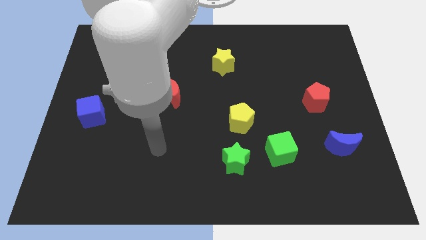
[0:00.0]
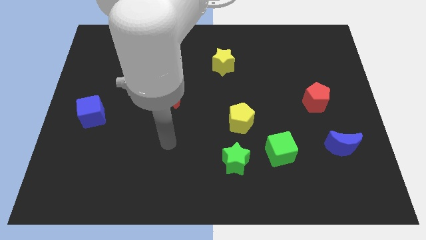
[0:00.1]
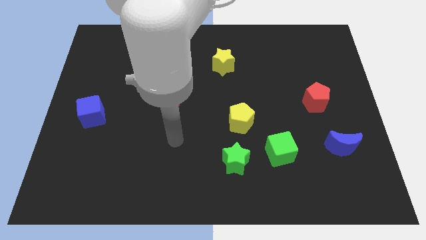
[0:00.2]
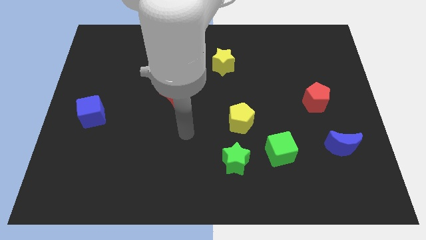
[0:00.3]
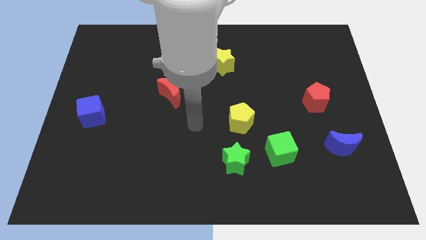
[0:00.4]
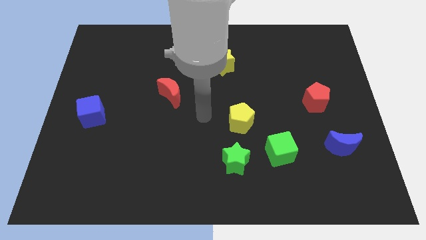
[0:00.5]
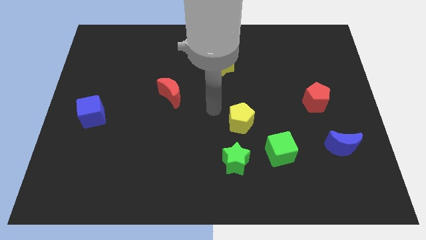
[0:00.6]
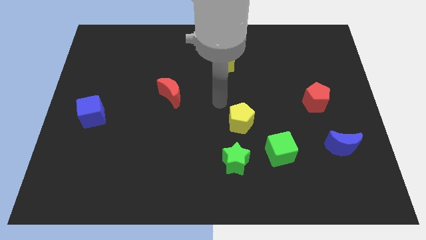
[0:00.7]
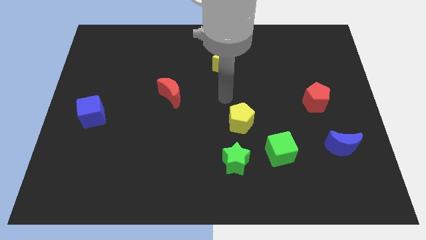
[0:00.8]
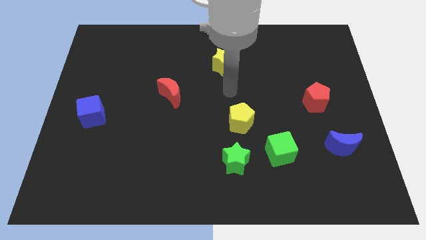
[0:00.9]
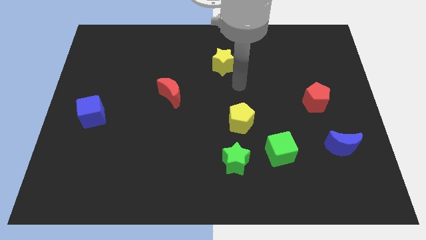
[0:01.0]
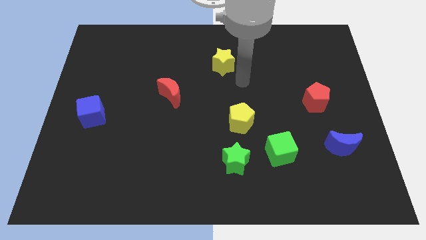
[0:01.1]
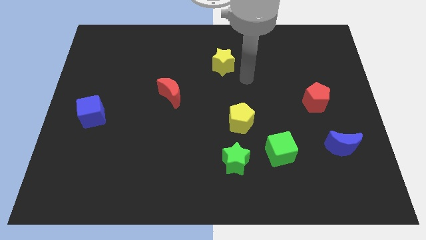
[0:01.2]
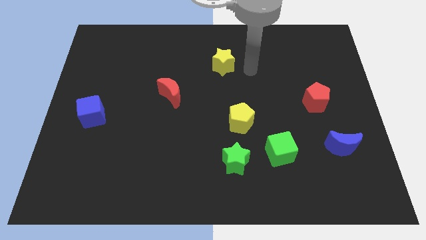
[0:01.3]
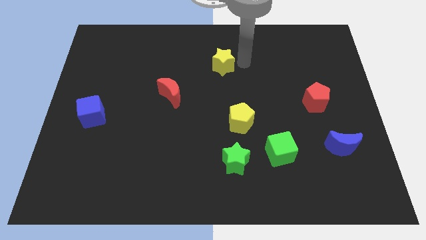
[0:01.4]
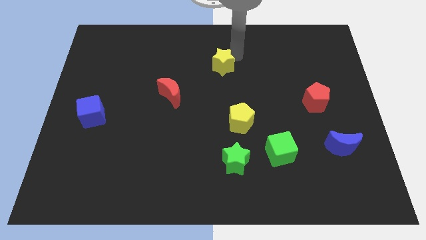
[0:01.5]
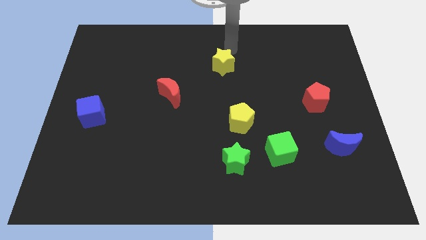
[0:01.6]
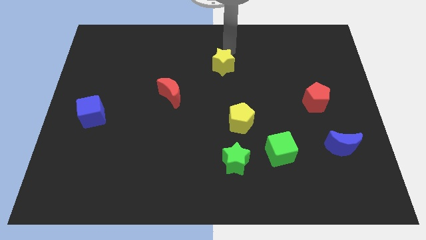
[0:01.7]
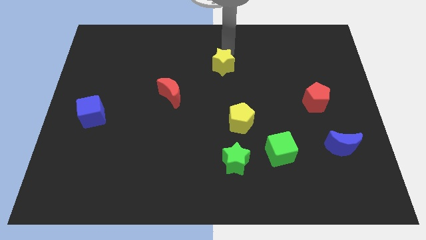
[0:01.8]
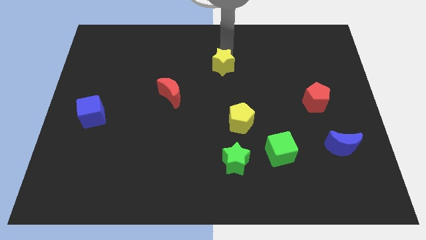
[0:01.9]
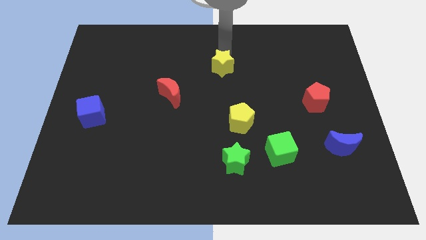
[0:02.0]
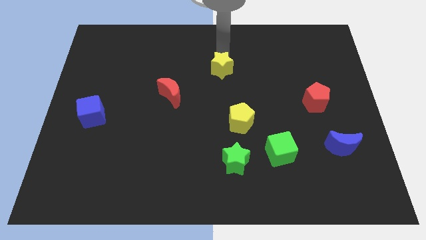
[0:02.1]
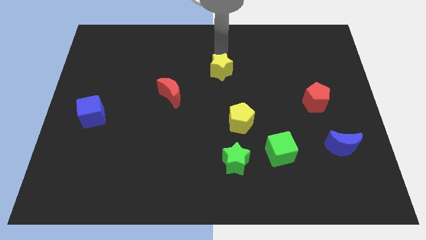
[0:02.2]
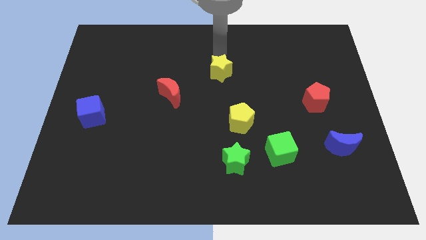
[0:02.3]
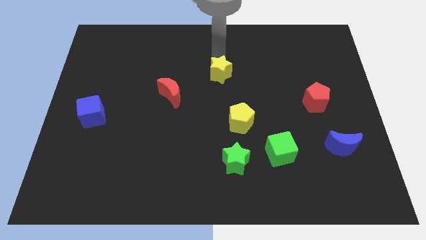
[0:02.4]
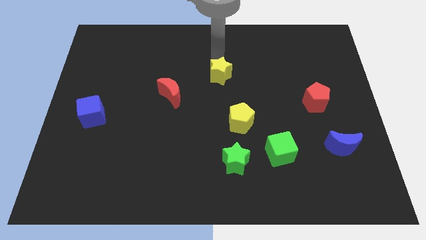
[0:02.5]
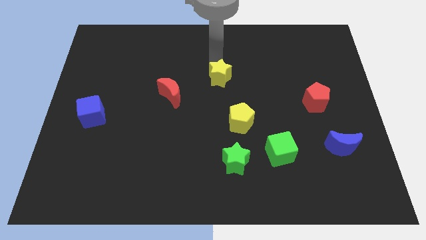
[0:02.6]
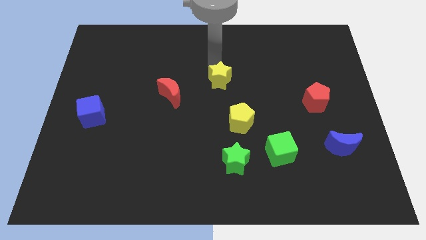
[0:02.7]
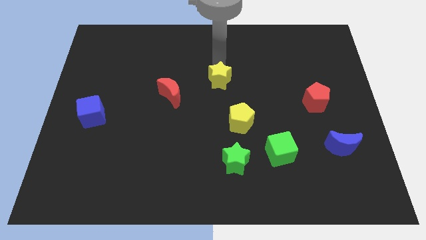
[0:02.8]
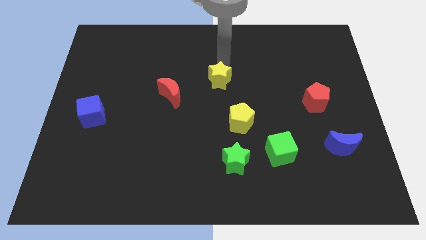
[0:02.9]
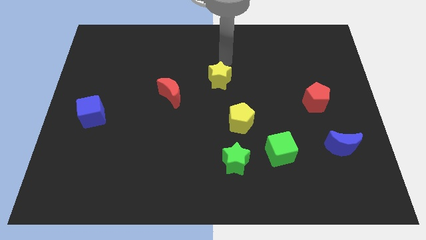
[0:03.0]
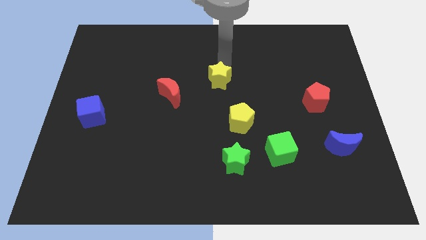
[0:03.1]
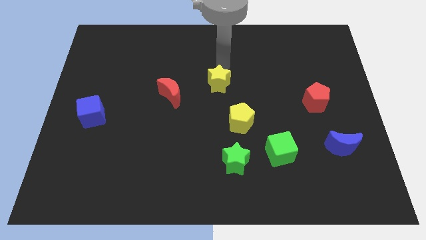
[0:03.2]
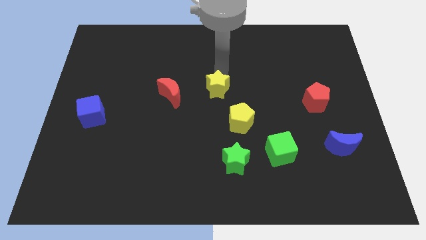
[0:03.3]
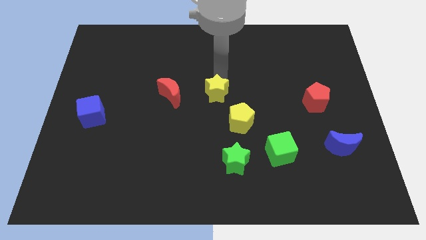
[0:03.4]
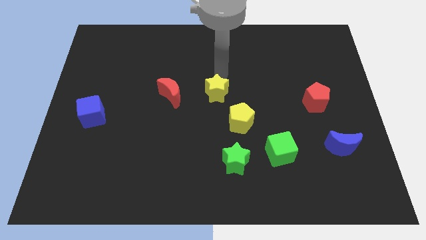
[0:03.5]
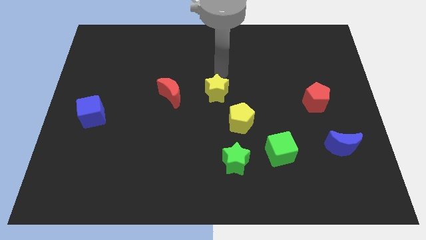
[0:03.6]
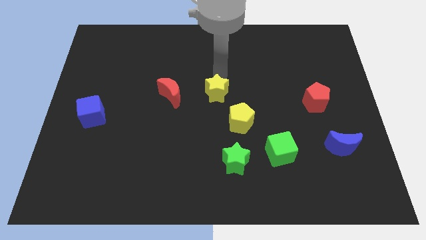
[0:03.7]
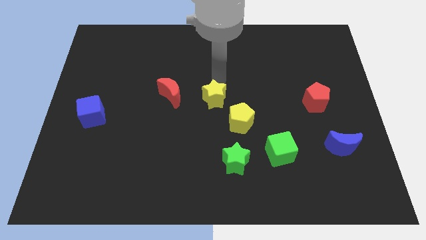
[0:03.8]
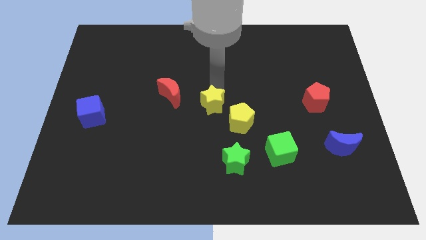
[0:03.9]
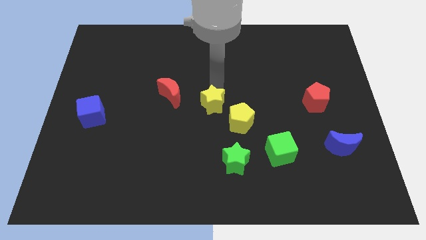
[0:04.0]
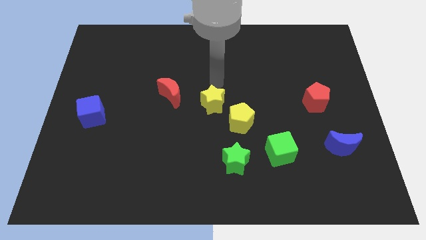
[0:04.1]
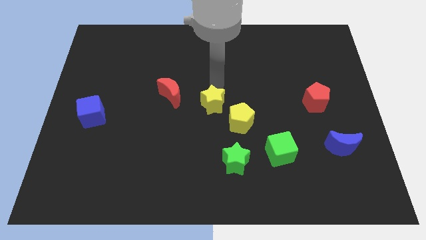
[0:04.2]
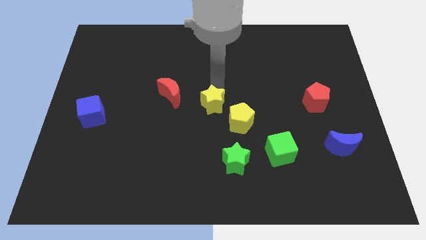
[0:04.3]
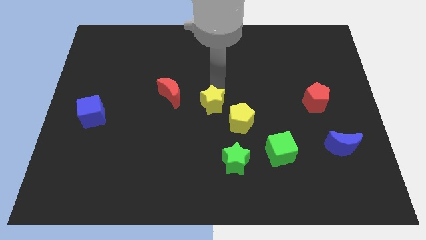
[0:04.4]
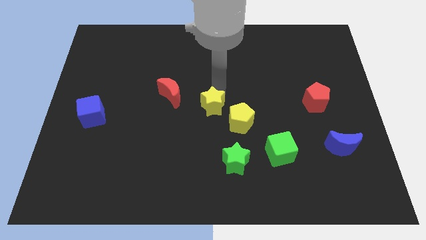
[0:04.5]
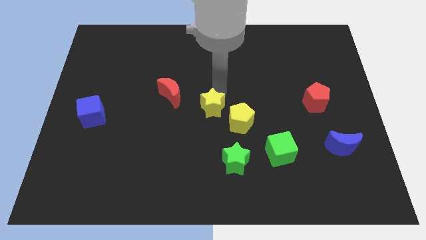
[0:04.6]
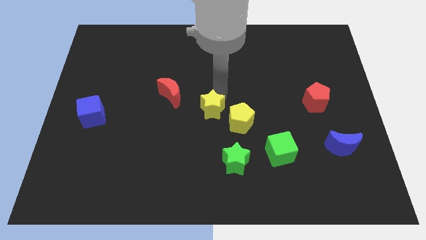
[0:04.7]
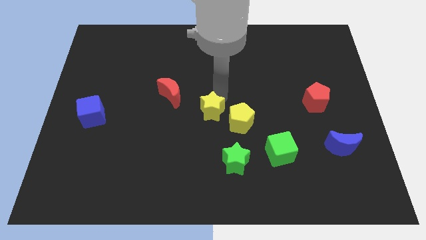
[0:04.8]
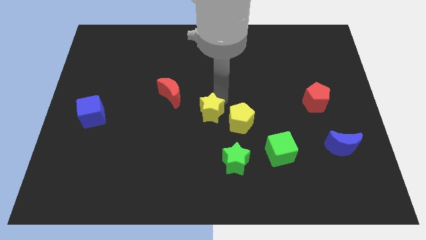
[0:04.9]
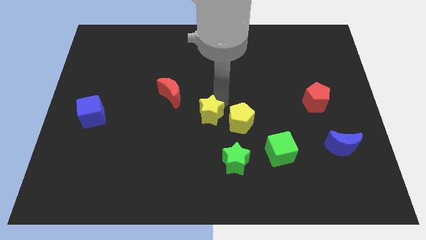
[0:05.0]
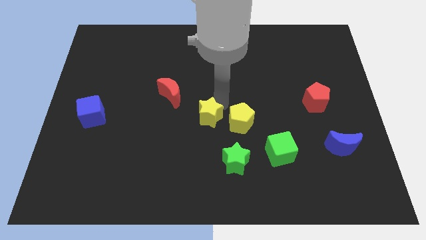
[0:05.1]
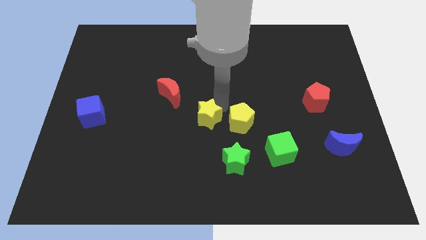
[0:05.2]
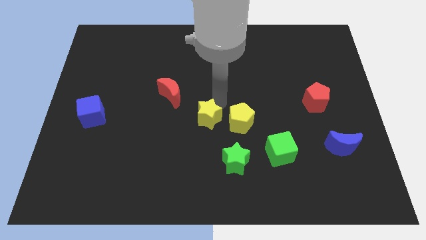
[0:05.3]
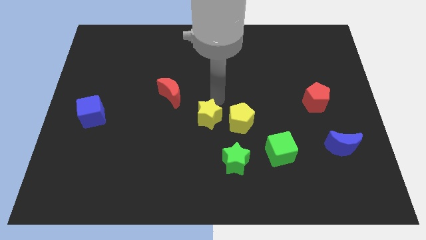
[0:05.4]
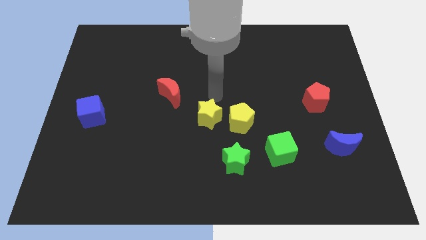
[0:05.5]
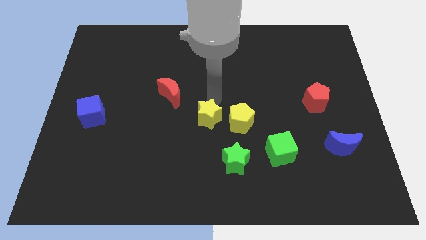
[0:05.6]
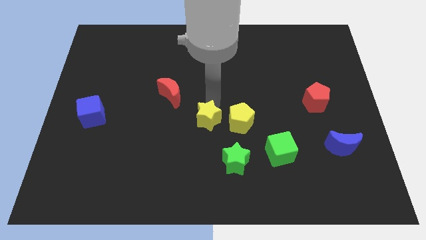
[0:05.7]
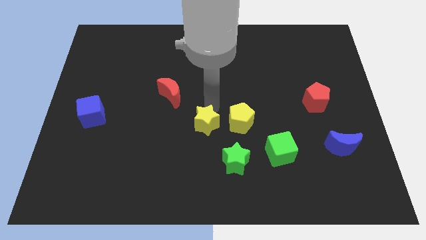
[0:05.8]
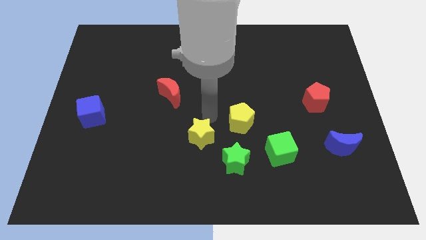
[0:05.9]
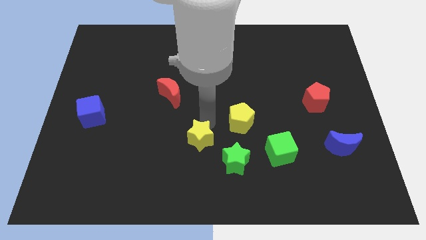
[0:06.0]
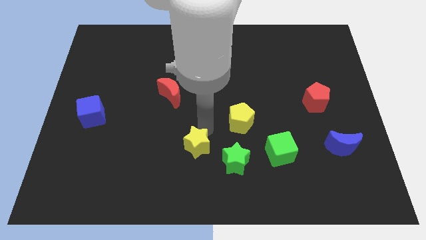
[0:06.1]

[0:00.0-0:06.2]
put the yellow star just left of the green star

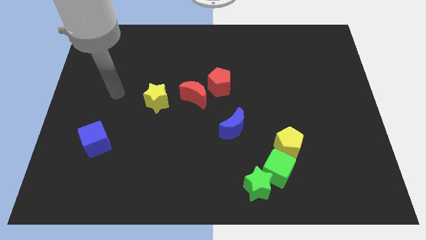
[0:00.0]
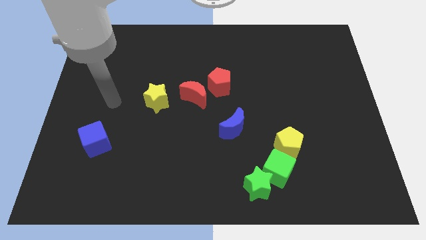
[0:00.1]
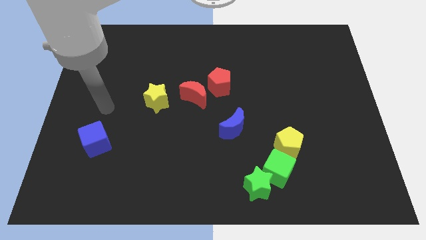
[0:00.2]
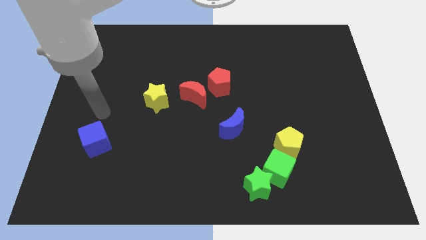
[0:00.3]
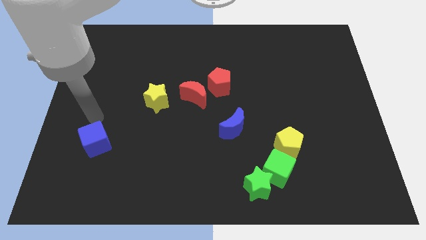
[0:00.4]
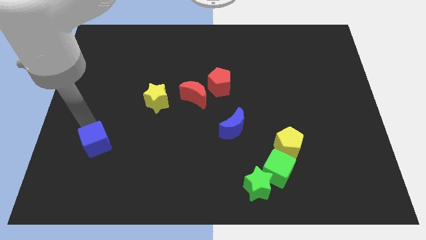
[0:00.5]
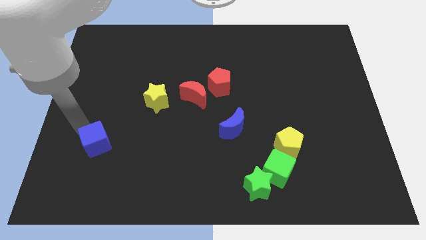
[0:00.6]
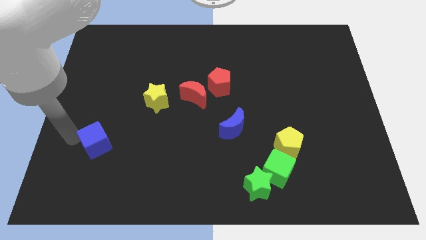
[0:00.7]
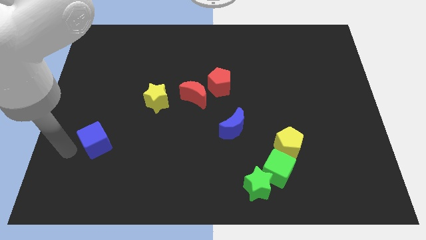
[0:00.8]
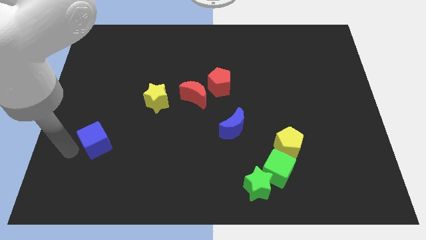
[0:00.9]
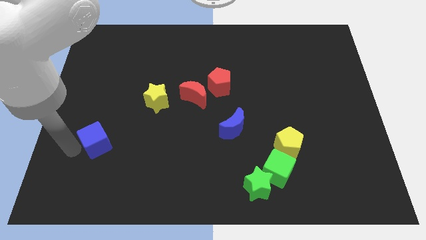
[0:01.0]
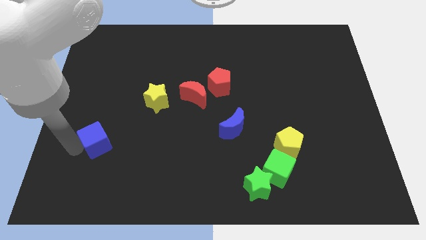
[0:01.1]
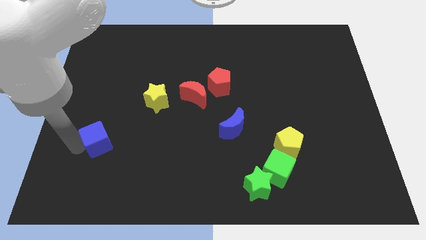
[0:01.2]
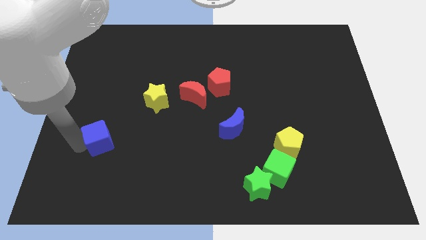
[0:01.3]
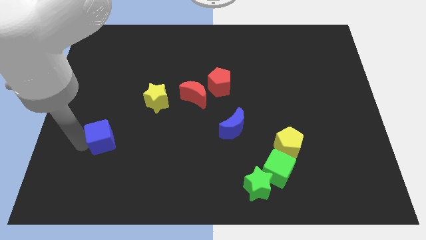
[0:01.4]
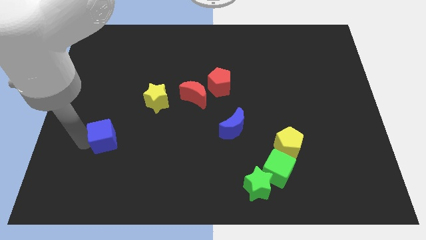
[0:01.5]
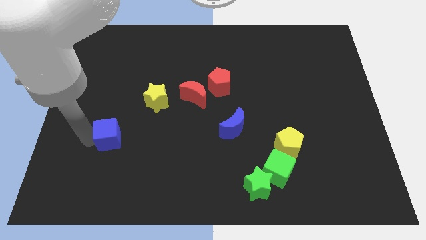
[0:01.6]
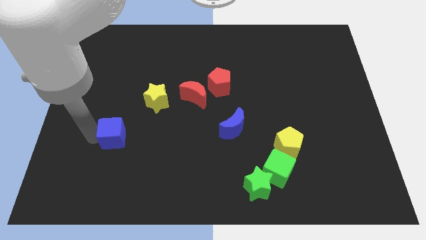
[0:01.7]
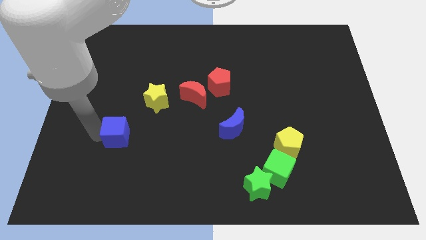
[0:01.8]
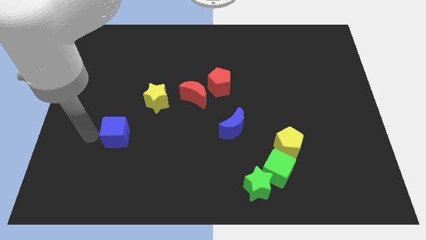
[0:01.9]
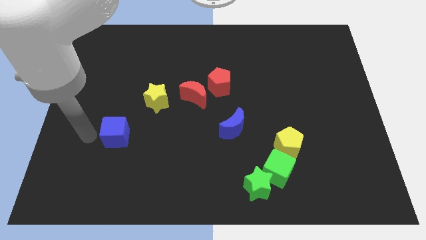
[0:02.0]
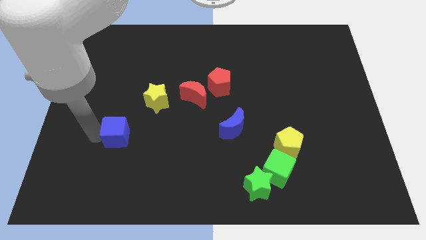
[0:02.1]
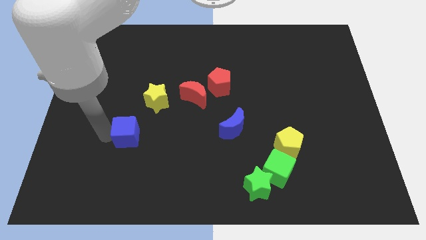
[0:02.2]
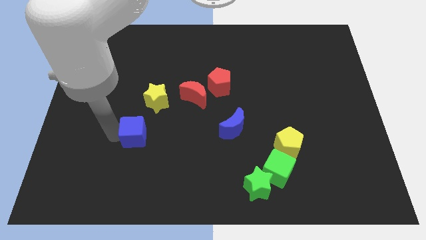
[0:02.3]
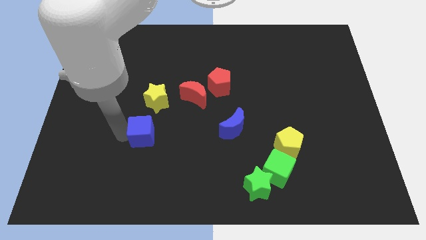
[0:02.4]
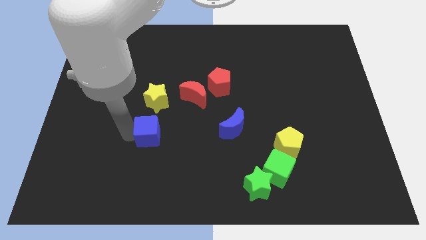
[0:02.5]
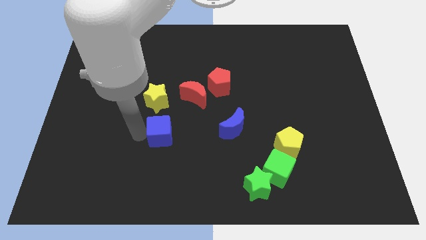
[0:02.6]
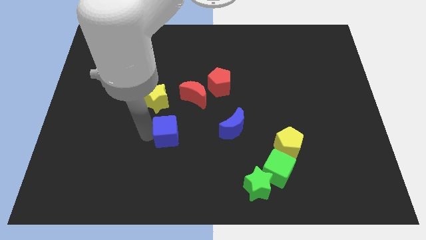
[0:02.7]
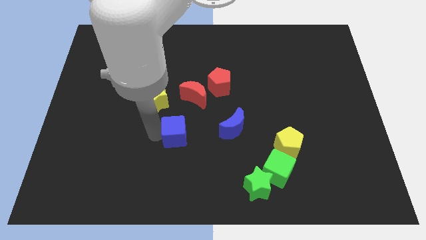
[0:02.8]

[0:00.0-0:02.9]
put the blue cube to the bottom of the red moon
